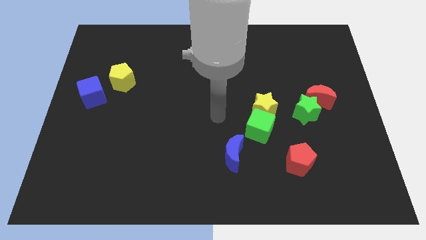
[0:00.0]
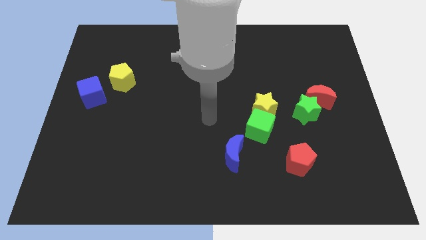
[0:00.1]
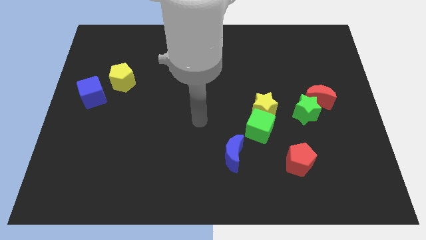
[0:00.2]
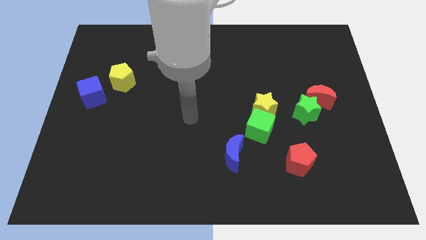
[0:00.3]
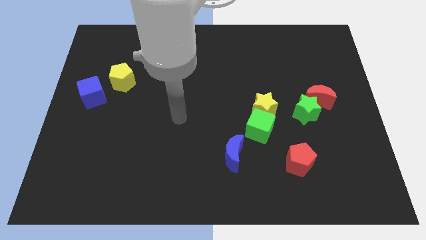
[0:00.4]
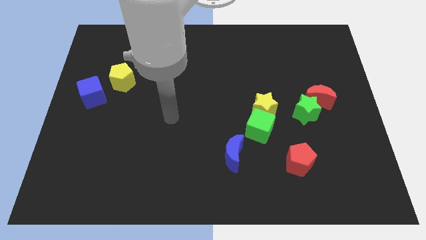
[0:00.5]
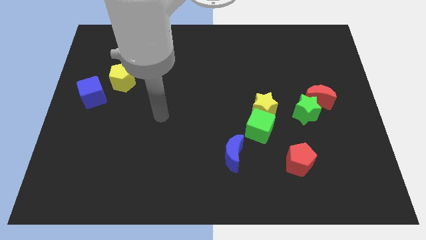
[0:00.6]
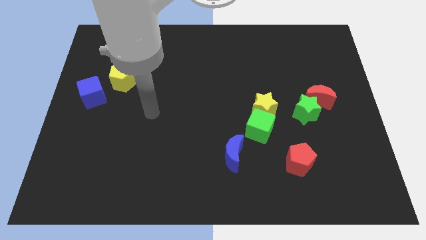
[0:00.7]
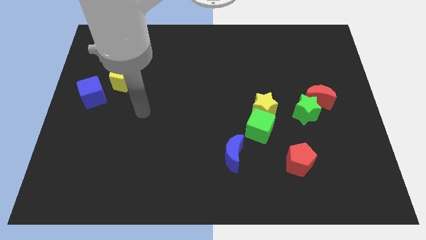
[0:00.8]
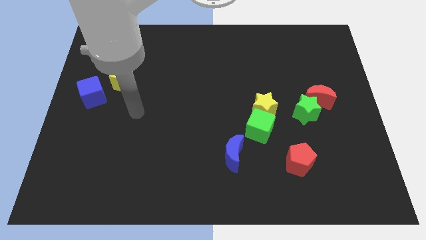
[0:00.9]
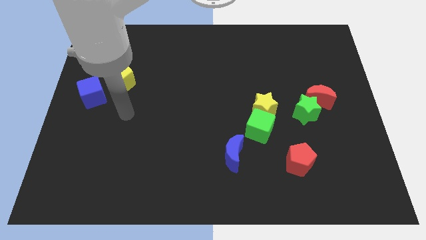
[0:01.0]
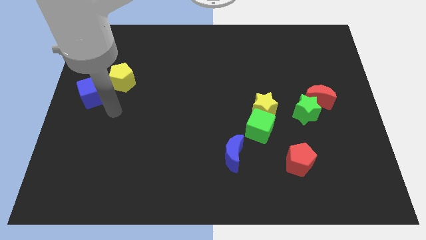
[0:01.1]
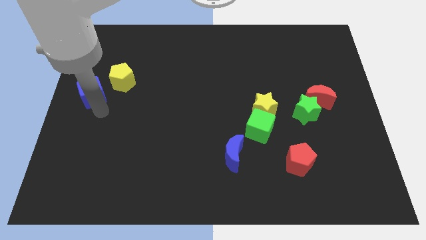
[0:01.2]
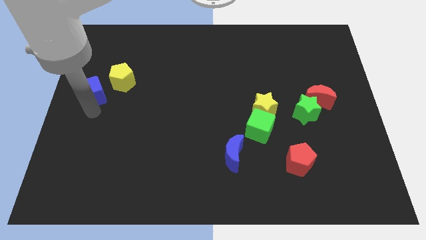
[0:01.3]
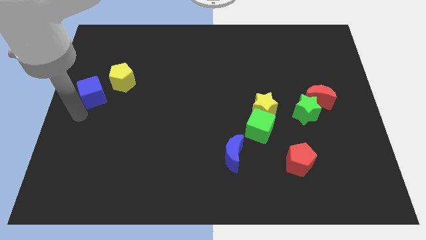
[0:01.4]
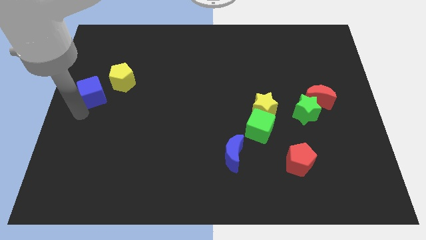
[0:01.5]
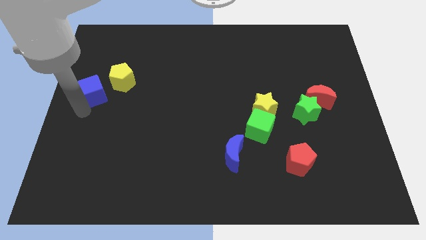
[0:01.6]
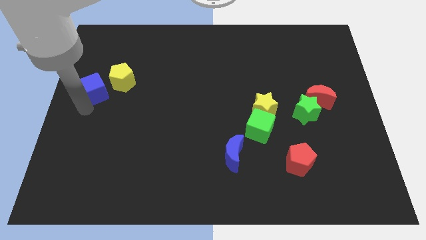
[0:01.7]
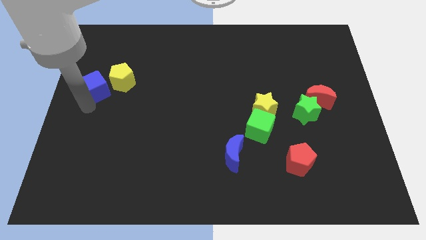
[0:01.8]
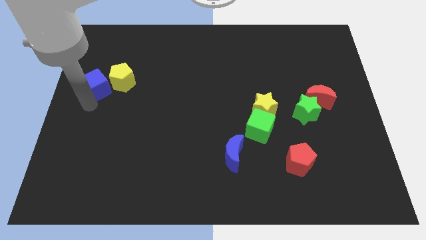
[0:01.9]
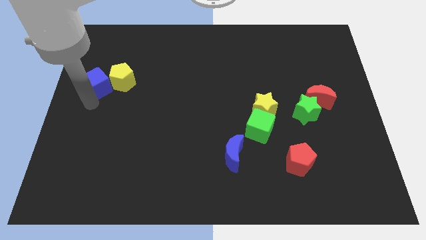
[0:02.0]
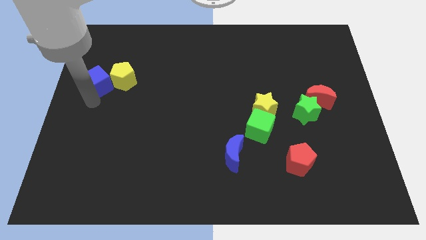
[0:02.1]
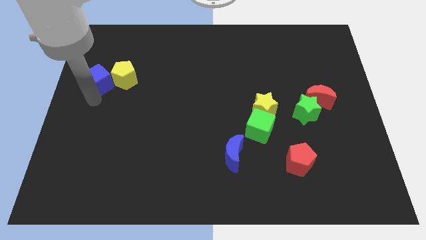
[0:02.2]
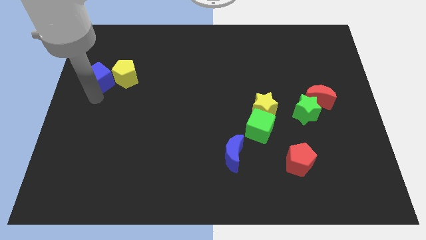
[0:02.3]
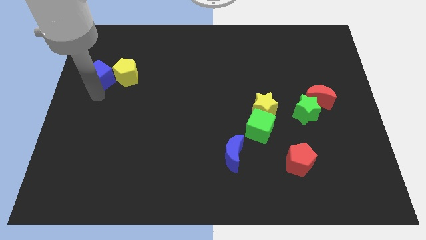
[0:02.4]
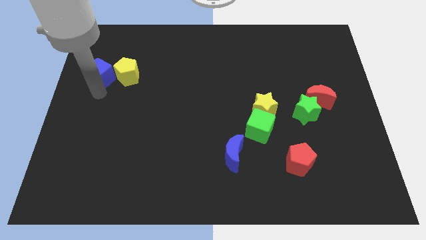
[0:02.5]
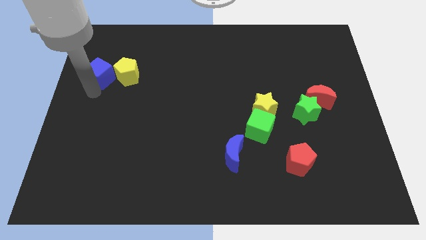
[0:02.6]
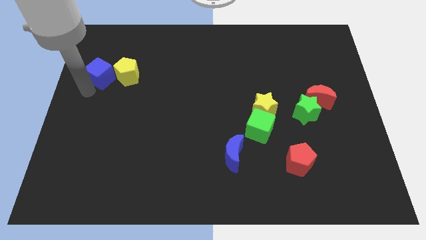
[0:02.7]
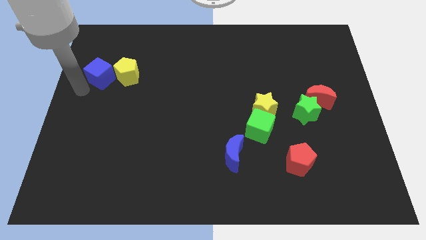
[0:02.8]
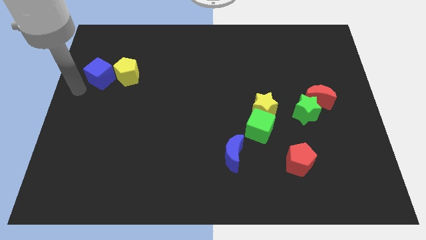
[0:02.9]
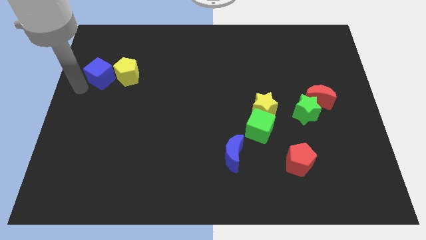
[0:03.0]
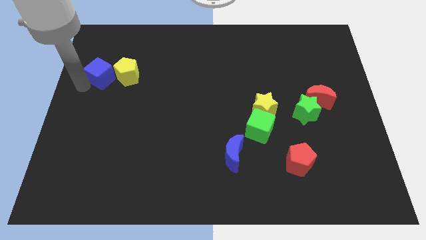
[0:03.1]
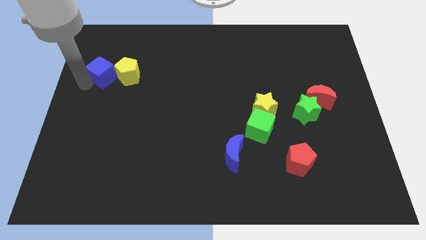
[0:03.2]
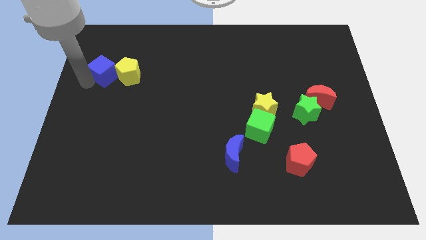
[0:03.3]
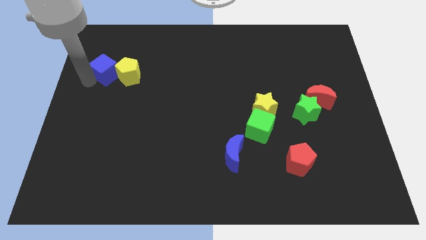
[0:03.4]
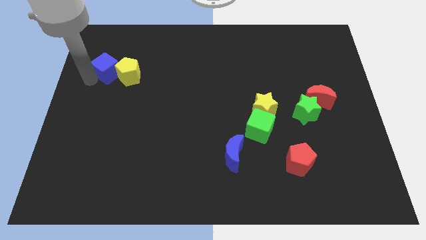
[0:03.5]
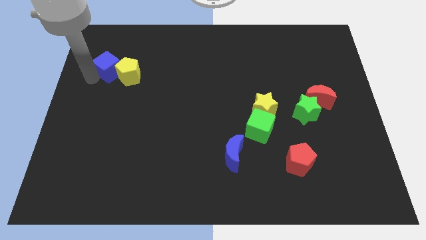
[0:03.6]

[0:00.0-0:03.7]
move the blue cube a bit diagonally up and right

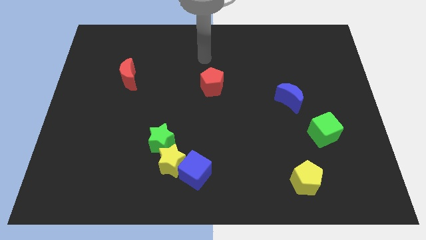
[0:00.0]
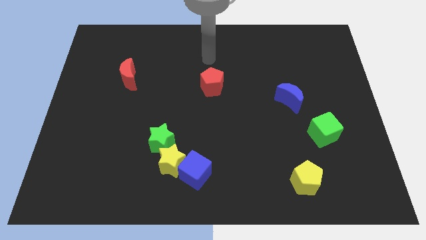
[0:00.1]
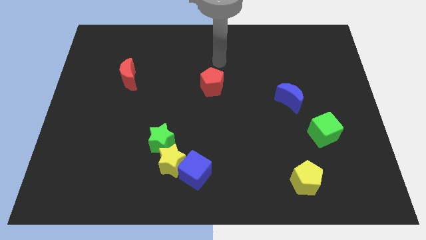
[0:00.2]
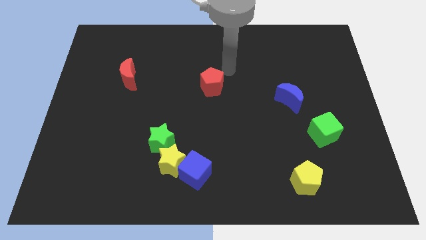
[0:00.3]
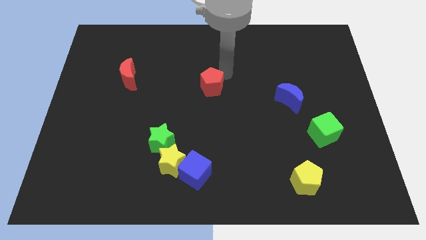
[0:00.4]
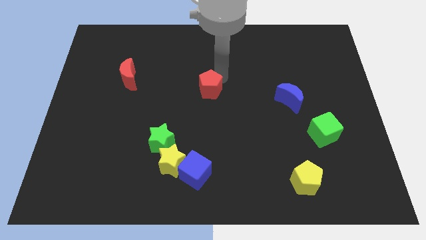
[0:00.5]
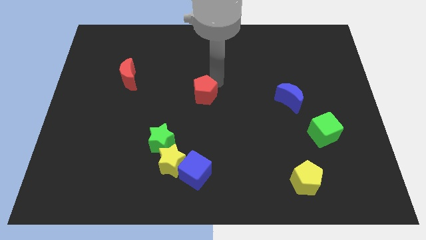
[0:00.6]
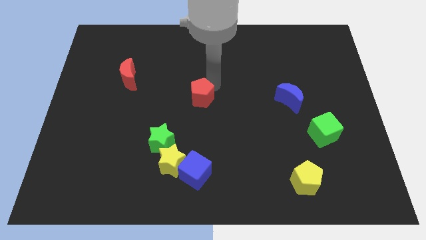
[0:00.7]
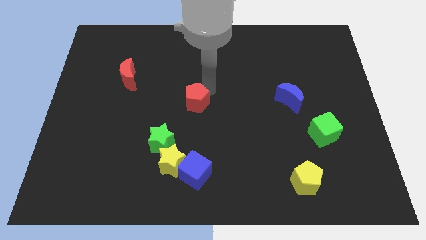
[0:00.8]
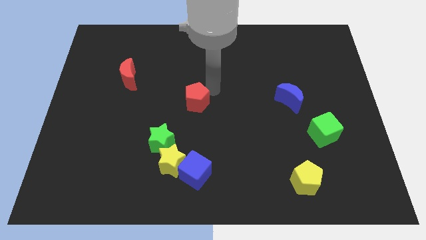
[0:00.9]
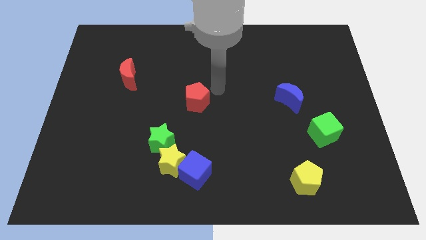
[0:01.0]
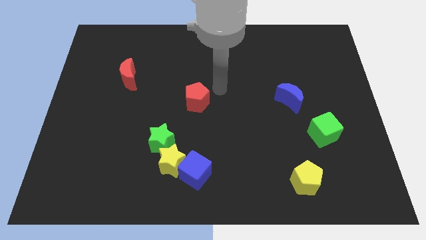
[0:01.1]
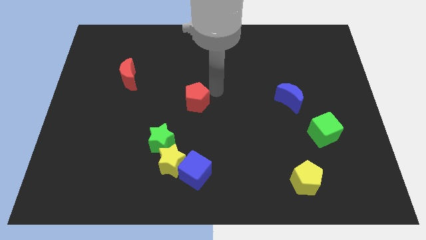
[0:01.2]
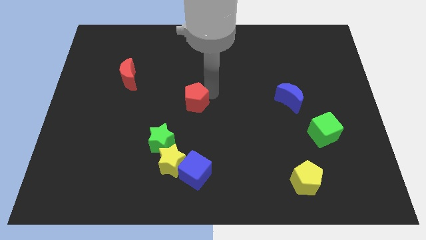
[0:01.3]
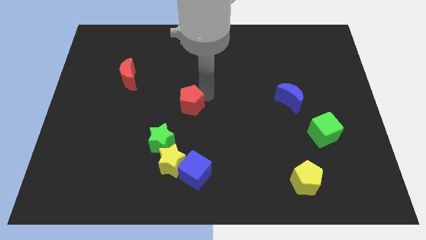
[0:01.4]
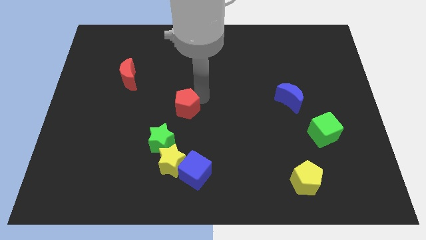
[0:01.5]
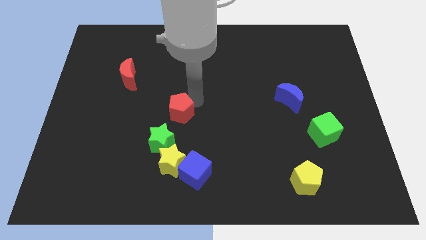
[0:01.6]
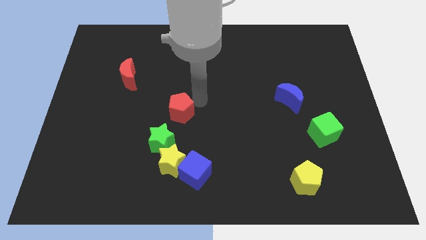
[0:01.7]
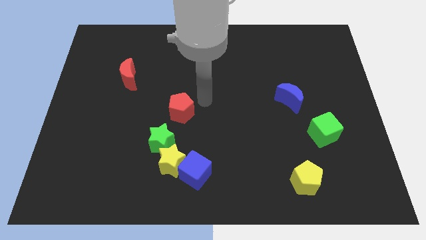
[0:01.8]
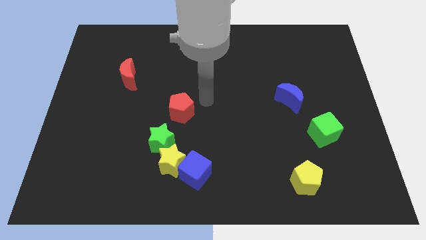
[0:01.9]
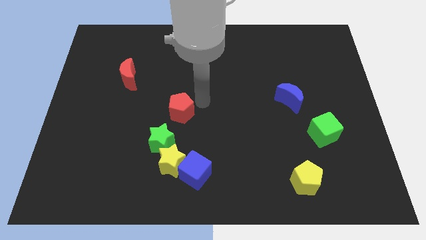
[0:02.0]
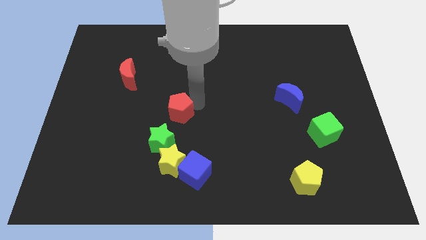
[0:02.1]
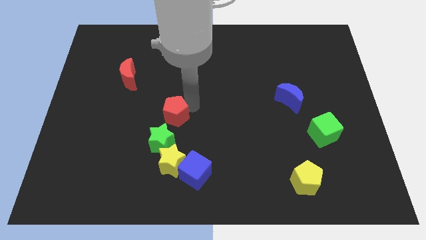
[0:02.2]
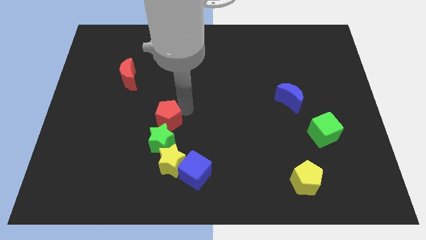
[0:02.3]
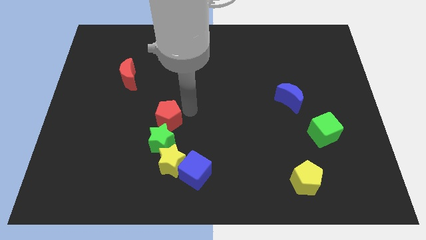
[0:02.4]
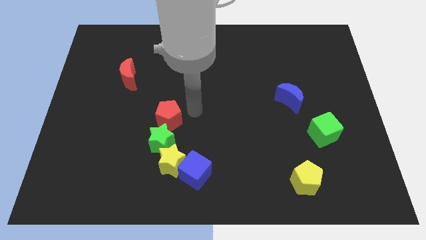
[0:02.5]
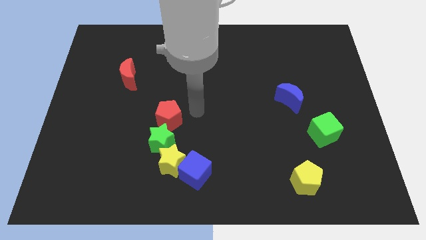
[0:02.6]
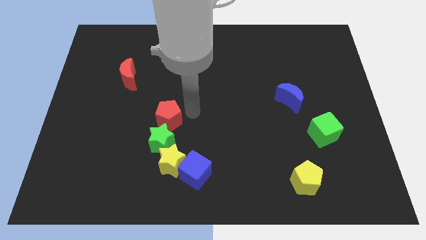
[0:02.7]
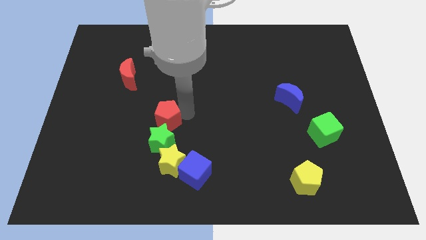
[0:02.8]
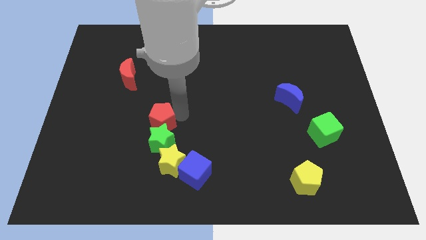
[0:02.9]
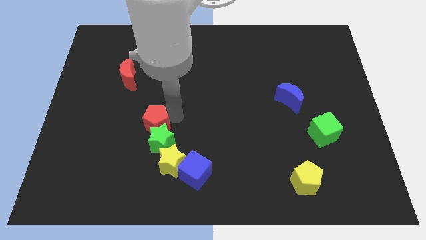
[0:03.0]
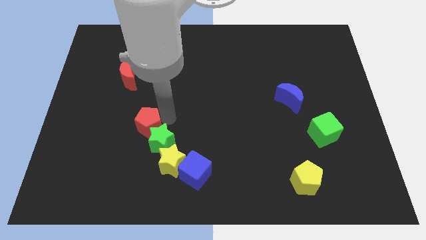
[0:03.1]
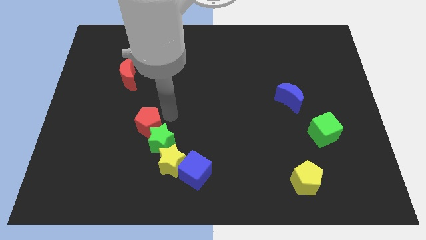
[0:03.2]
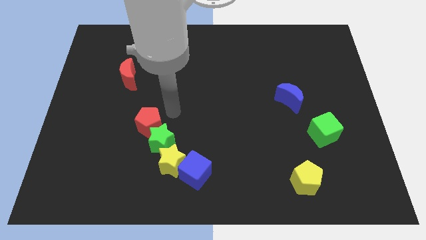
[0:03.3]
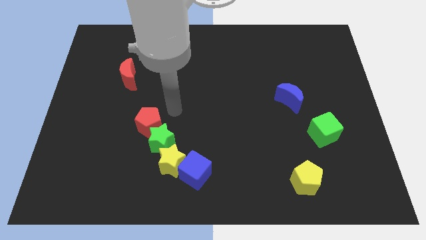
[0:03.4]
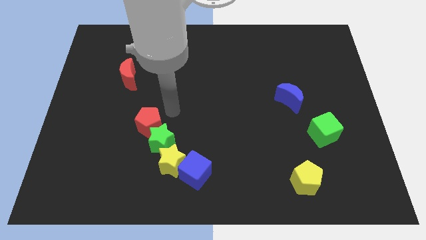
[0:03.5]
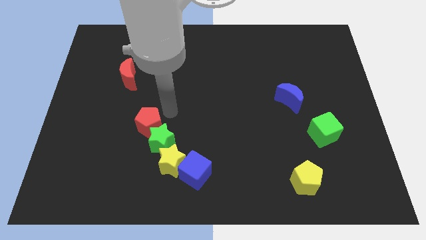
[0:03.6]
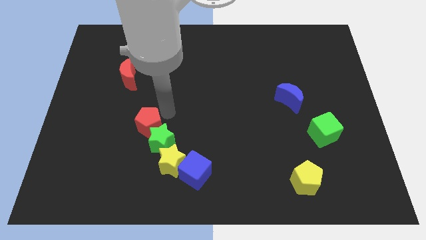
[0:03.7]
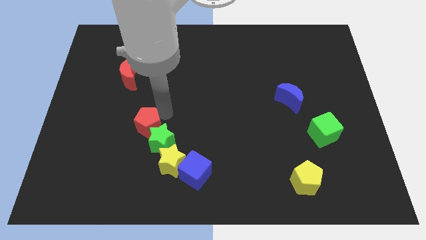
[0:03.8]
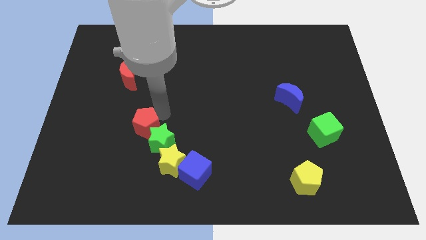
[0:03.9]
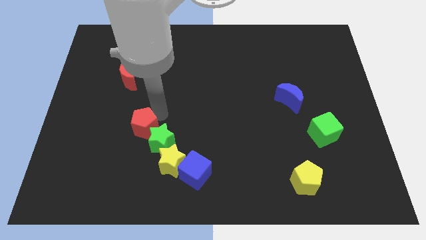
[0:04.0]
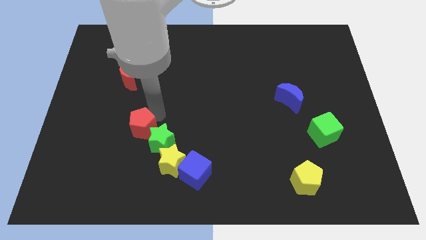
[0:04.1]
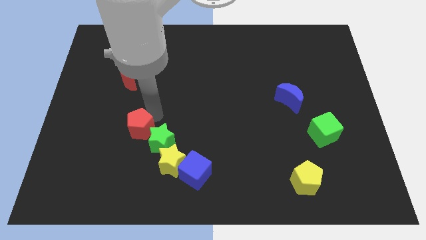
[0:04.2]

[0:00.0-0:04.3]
push the red pentagon diagonally downwards and to the left

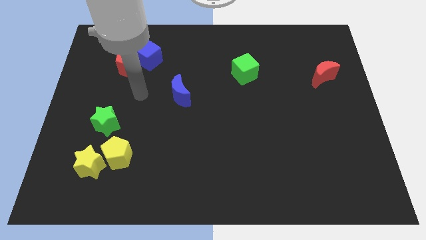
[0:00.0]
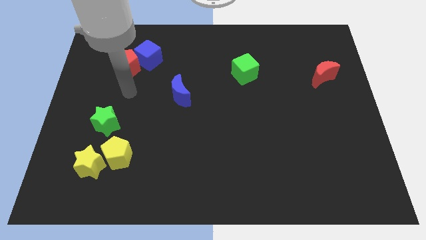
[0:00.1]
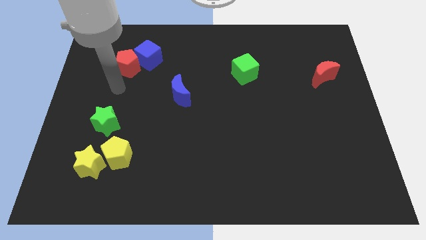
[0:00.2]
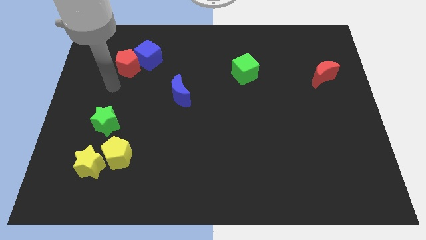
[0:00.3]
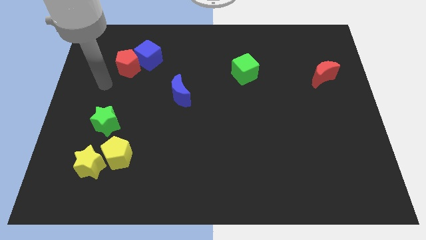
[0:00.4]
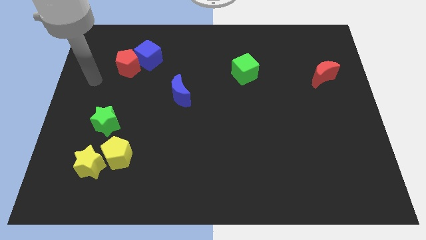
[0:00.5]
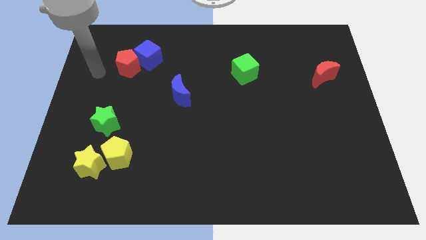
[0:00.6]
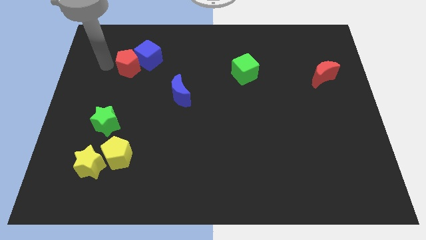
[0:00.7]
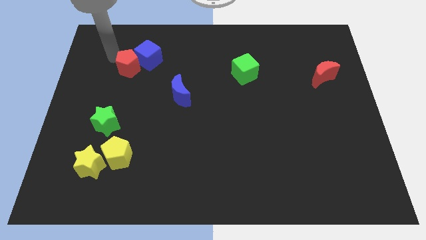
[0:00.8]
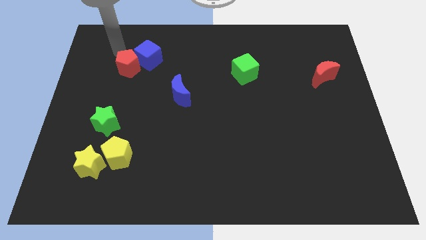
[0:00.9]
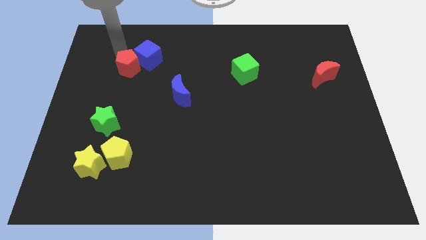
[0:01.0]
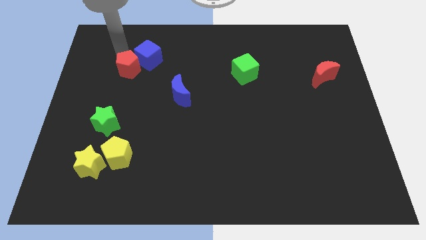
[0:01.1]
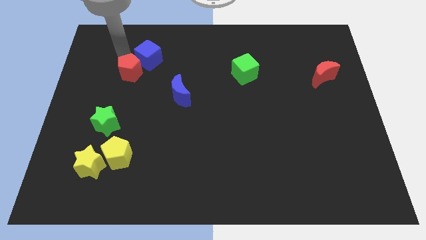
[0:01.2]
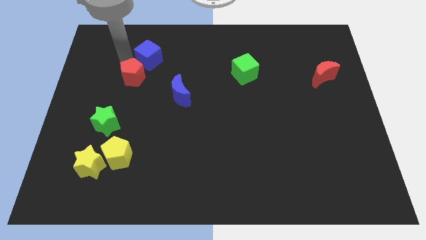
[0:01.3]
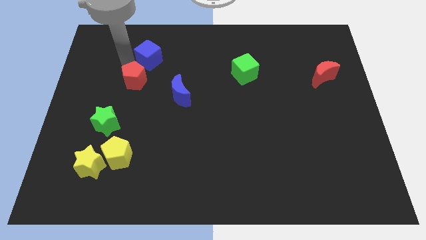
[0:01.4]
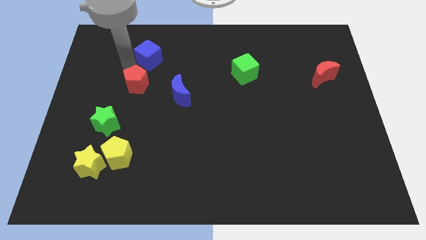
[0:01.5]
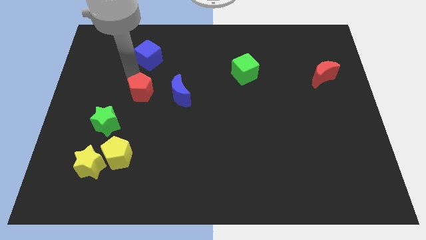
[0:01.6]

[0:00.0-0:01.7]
slide the red pentagon downwards and then right slightly
